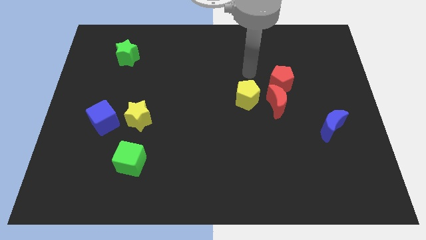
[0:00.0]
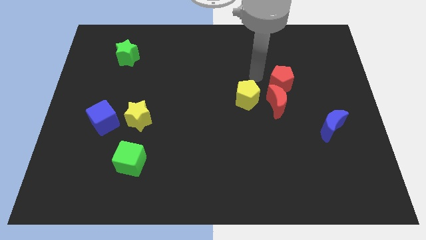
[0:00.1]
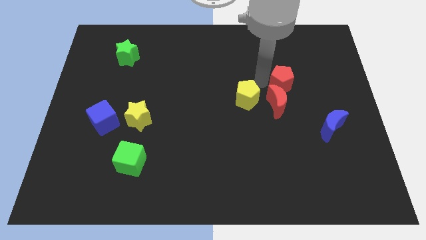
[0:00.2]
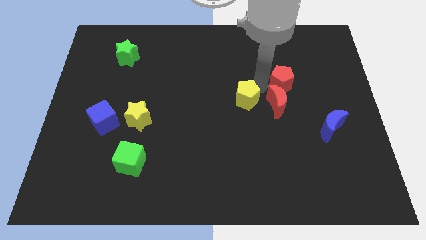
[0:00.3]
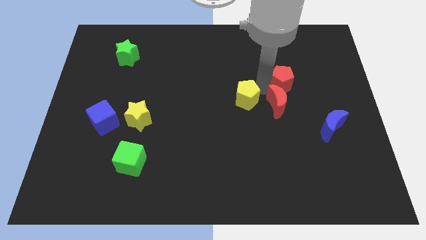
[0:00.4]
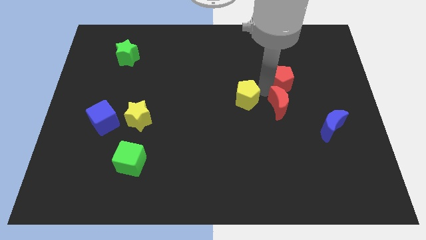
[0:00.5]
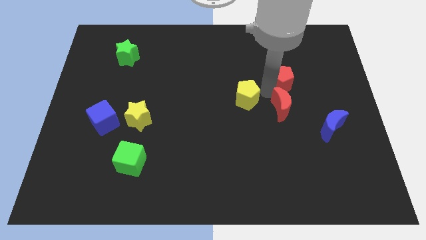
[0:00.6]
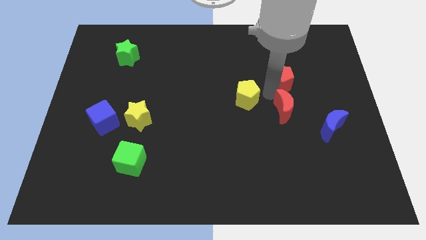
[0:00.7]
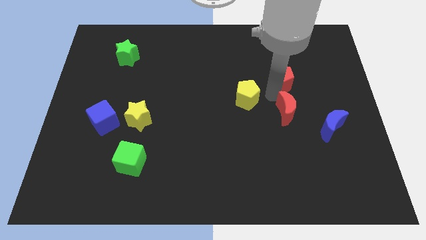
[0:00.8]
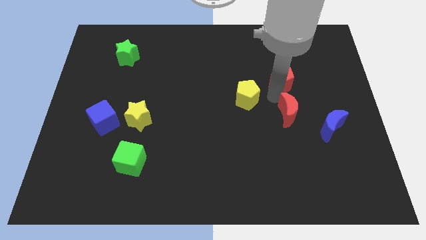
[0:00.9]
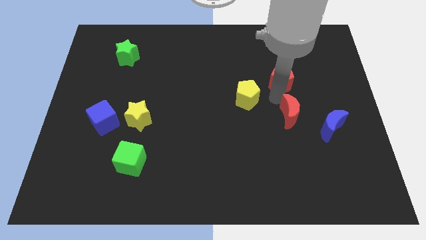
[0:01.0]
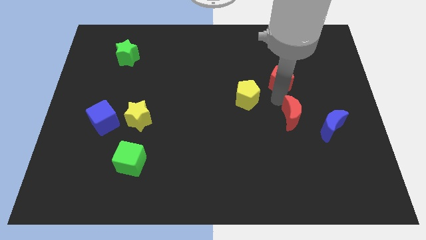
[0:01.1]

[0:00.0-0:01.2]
move the red moon away from the red pentagon and yellow pentagon

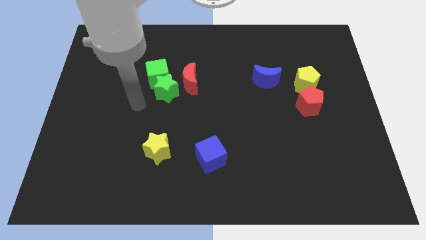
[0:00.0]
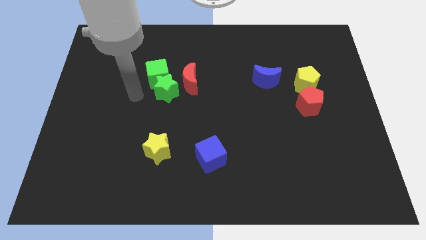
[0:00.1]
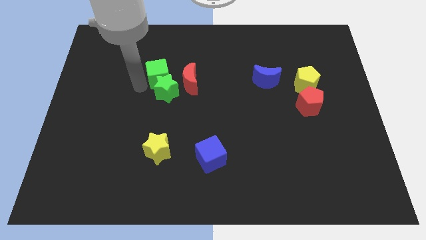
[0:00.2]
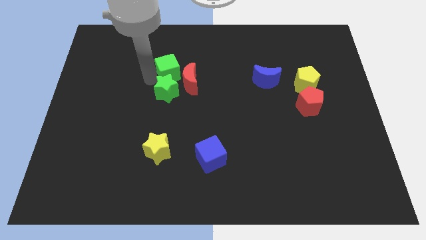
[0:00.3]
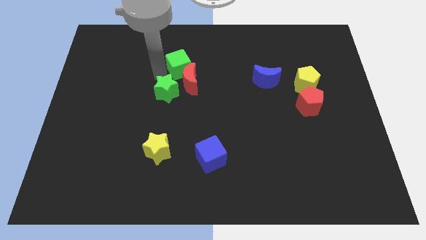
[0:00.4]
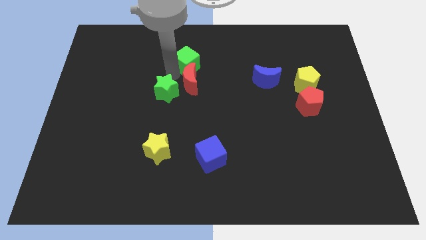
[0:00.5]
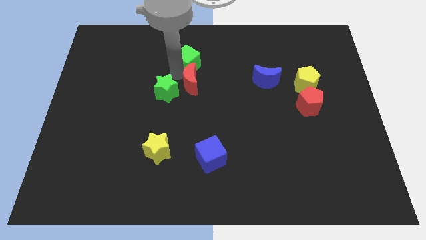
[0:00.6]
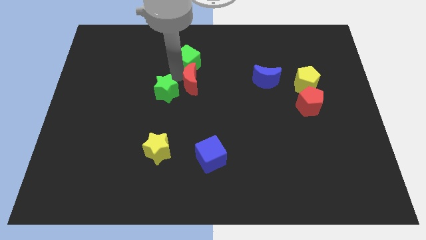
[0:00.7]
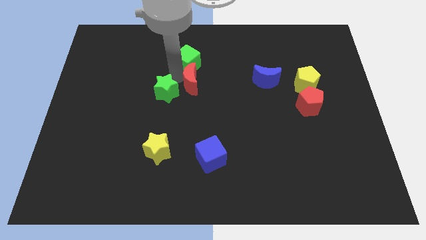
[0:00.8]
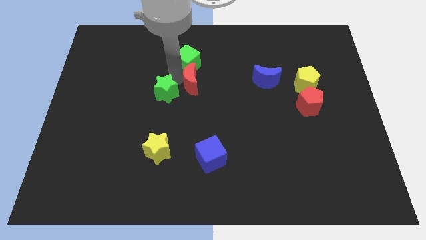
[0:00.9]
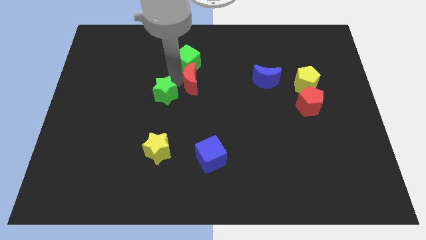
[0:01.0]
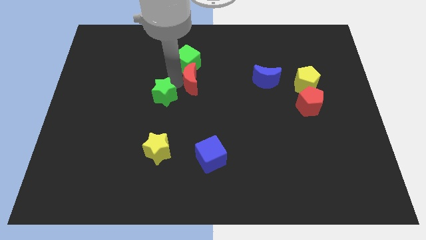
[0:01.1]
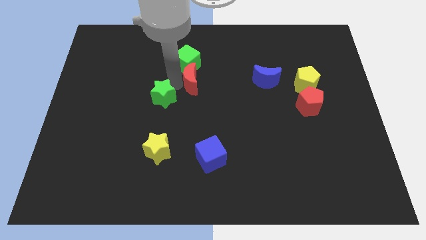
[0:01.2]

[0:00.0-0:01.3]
pull the green star apart from the green cube and red moon

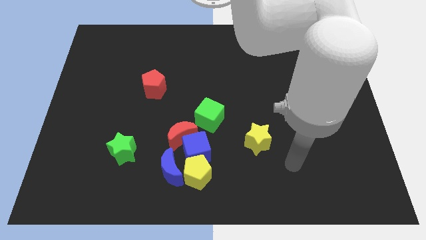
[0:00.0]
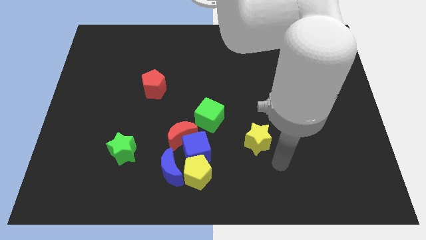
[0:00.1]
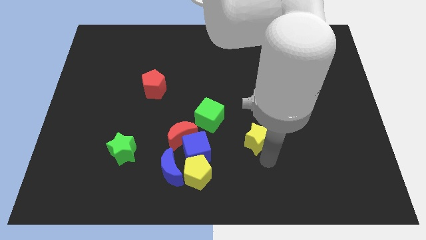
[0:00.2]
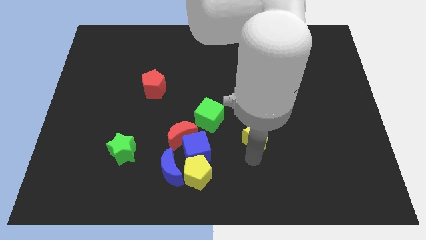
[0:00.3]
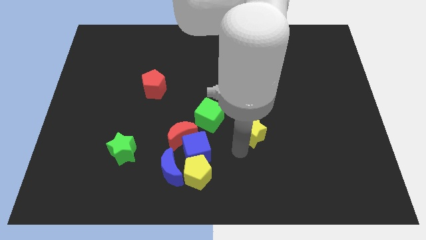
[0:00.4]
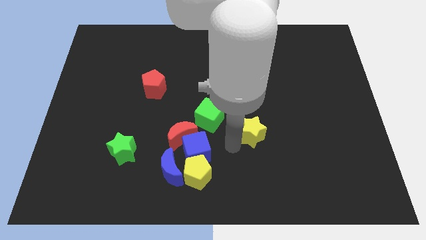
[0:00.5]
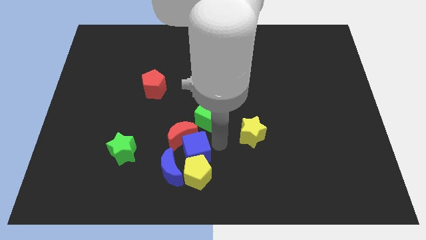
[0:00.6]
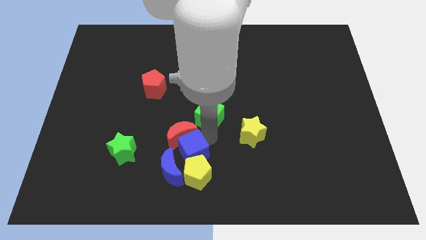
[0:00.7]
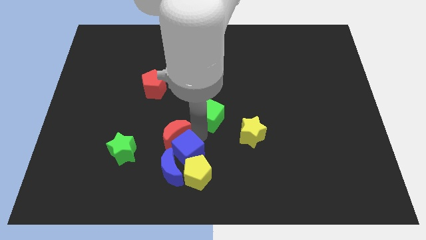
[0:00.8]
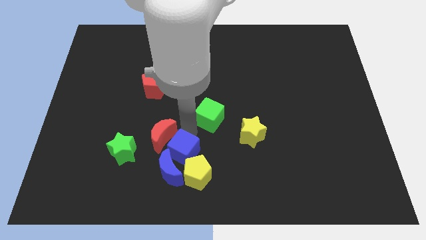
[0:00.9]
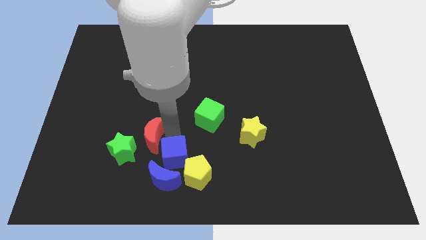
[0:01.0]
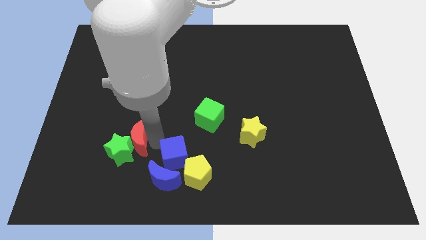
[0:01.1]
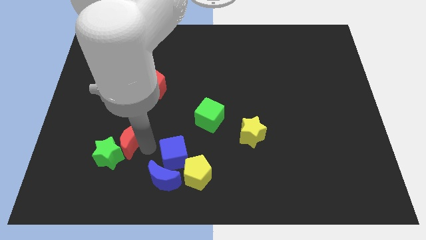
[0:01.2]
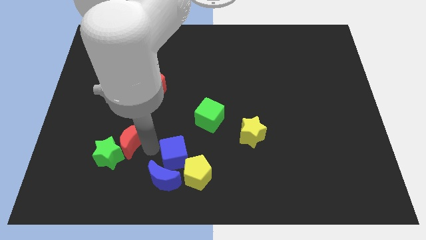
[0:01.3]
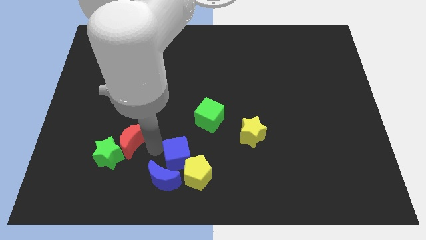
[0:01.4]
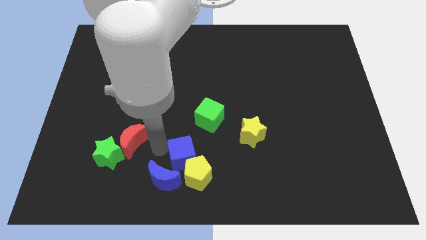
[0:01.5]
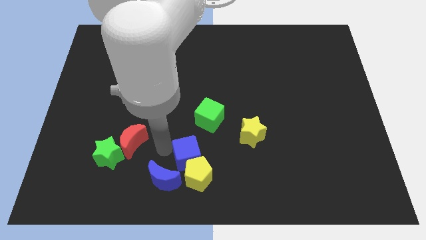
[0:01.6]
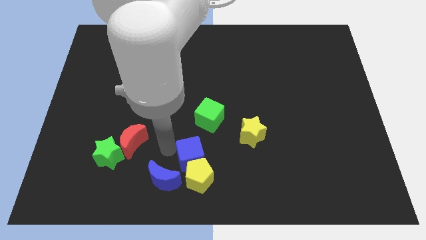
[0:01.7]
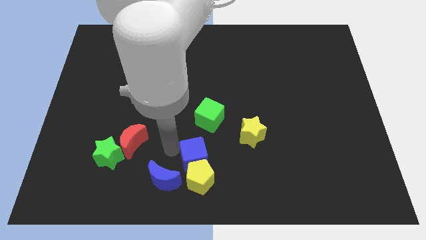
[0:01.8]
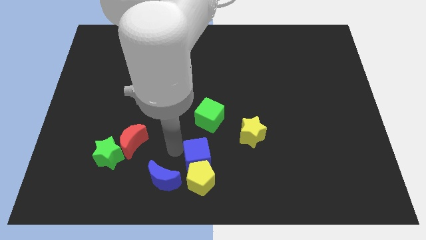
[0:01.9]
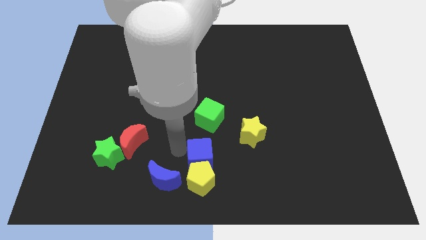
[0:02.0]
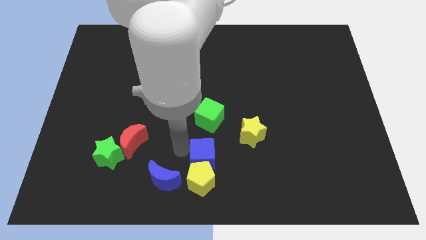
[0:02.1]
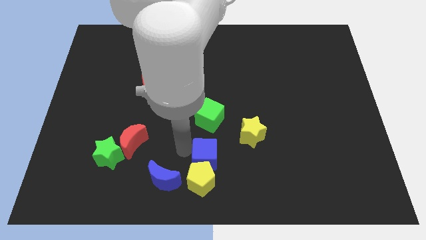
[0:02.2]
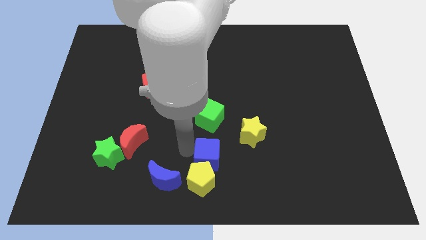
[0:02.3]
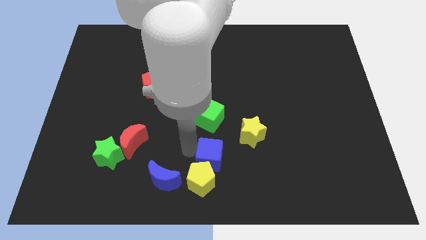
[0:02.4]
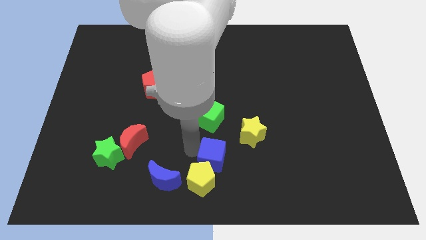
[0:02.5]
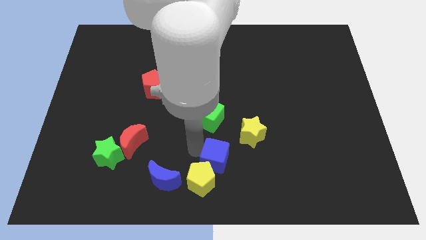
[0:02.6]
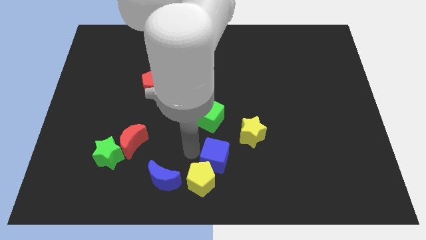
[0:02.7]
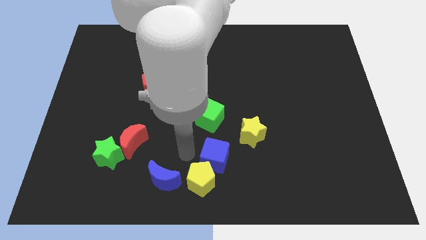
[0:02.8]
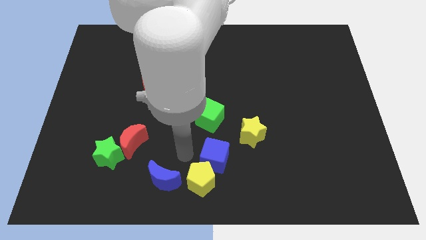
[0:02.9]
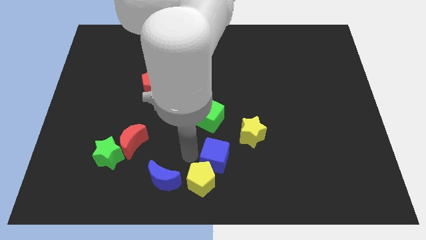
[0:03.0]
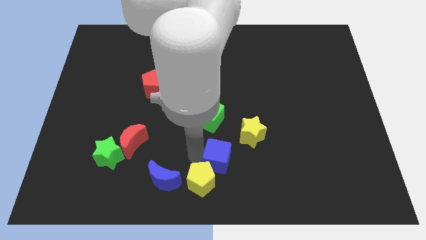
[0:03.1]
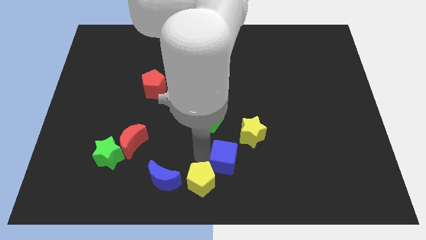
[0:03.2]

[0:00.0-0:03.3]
separate the blue cube from the clump

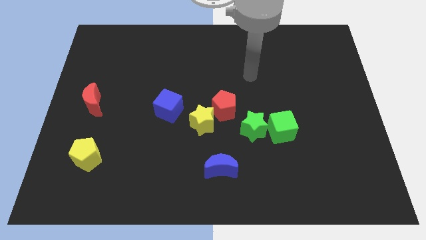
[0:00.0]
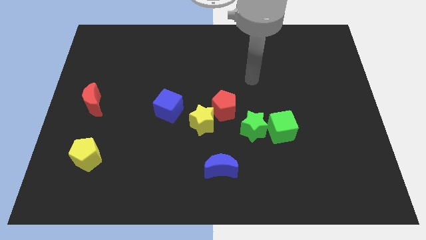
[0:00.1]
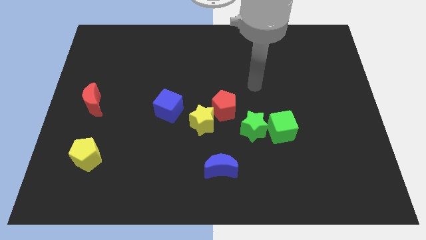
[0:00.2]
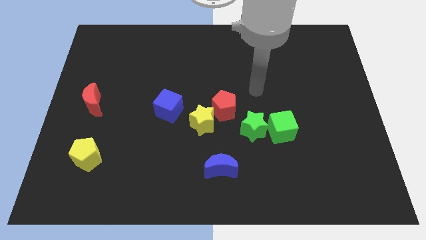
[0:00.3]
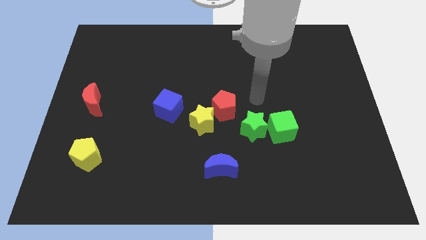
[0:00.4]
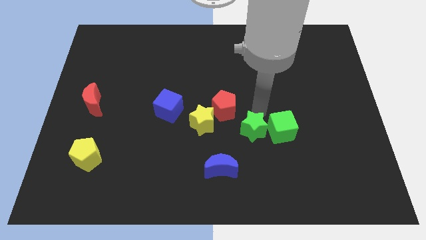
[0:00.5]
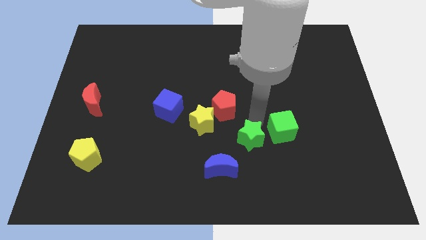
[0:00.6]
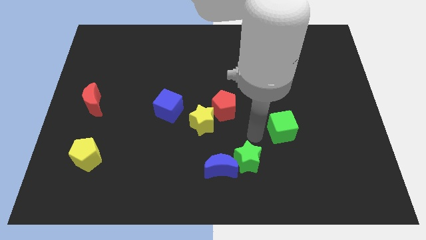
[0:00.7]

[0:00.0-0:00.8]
pull the green cube apart from the green star

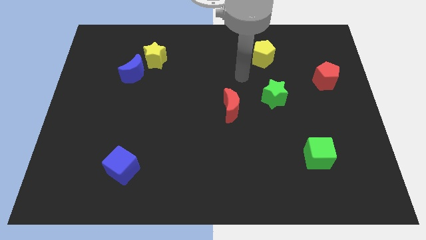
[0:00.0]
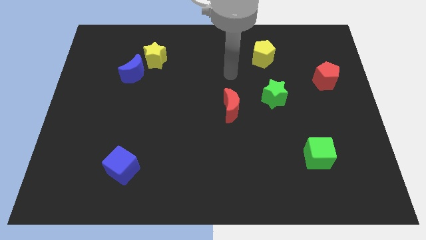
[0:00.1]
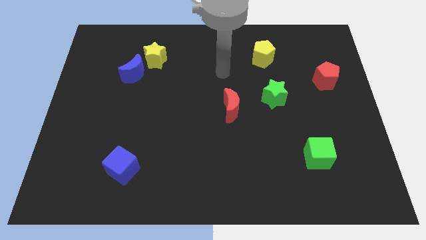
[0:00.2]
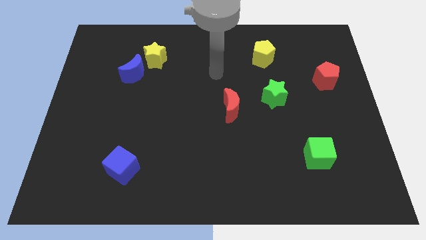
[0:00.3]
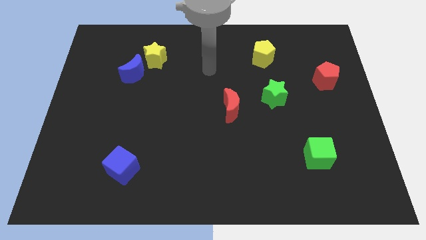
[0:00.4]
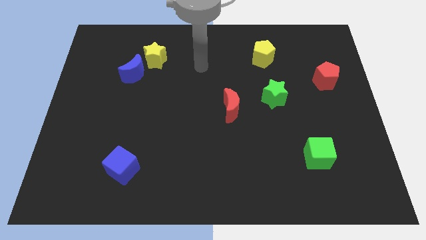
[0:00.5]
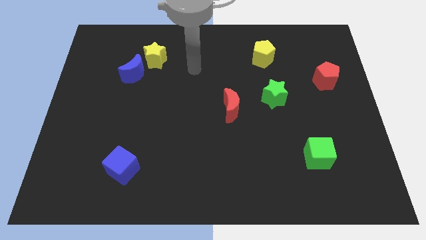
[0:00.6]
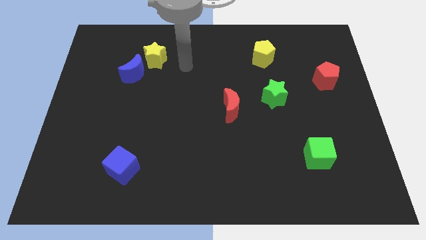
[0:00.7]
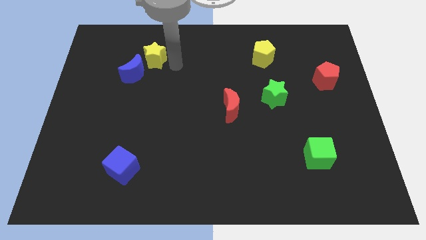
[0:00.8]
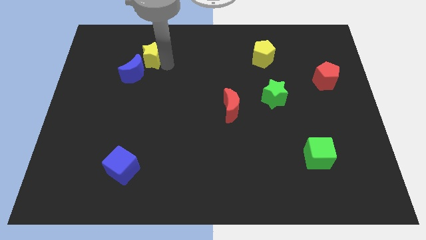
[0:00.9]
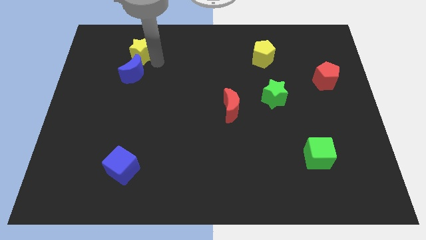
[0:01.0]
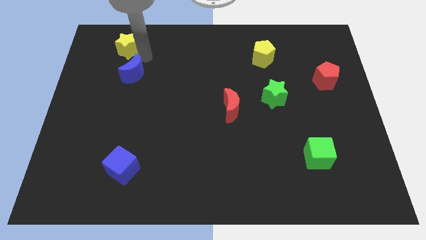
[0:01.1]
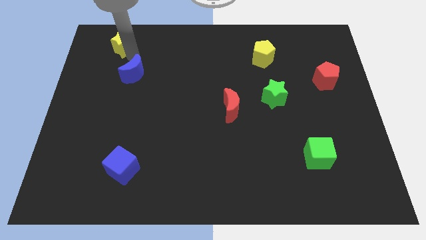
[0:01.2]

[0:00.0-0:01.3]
separate the blue moon from the yellow star

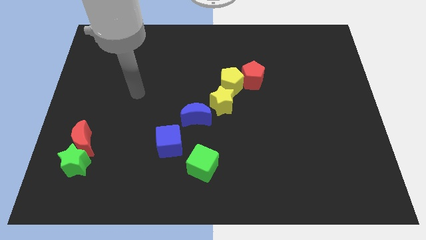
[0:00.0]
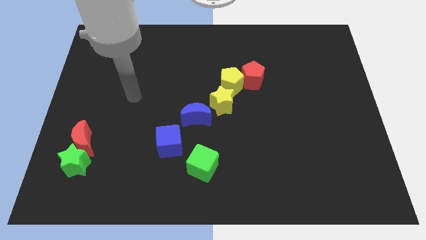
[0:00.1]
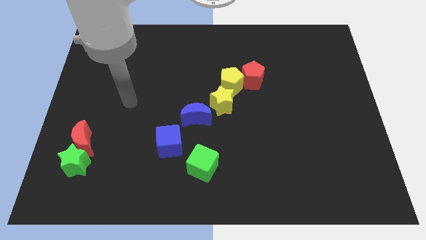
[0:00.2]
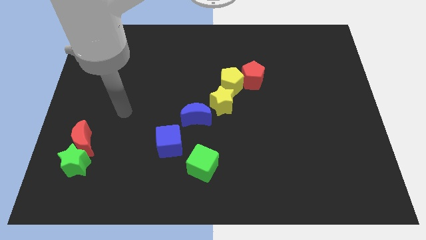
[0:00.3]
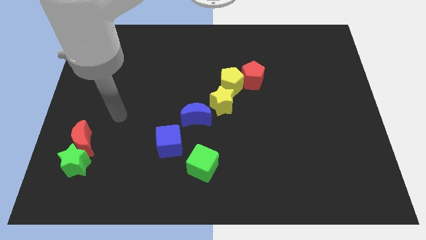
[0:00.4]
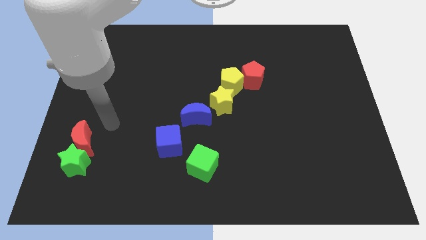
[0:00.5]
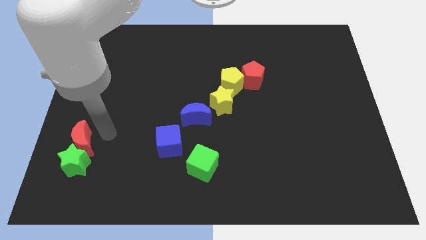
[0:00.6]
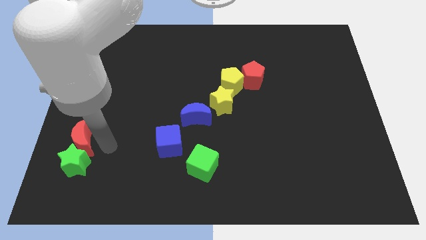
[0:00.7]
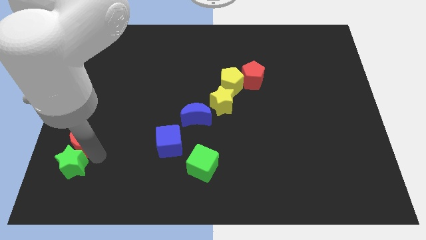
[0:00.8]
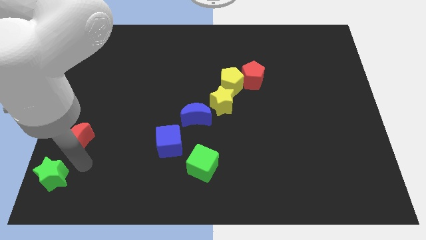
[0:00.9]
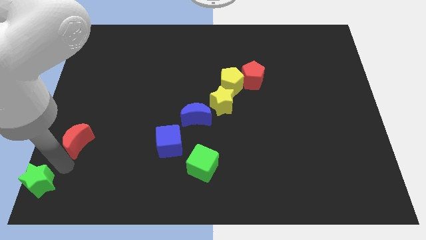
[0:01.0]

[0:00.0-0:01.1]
separate the red moon from the green star

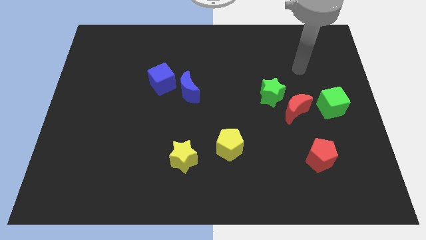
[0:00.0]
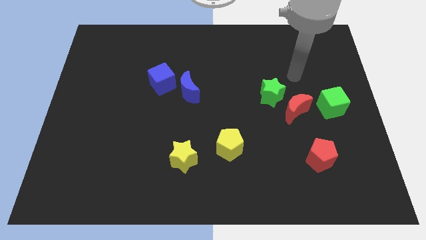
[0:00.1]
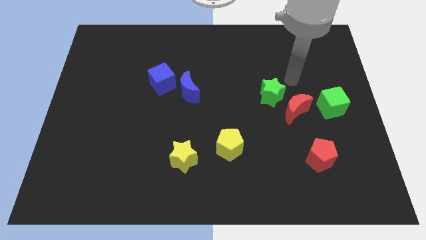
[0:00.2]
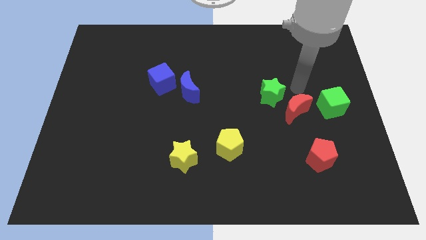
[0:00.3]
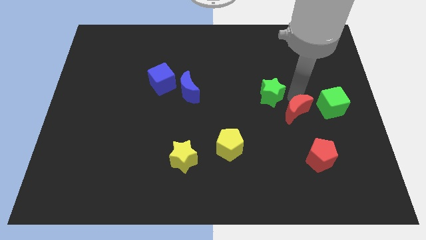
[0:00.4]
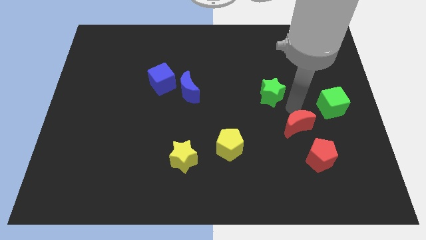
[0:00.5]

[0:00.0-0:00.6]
separate the green star from the red moon
